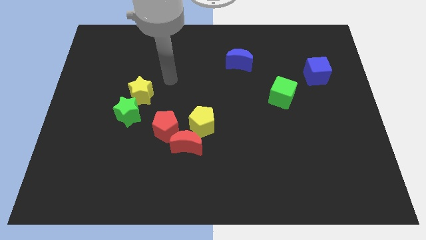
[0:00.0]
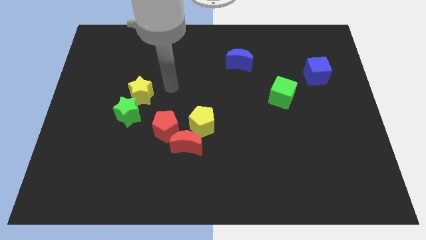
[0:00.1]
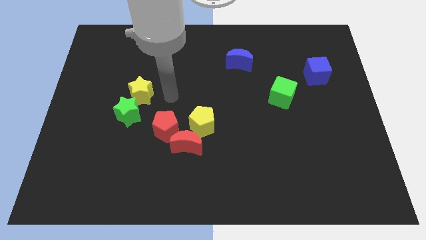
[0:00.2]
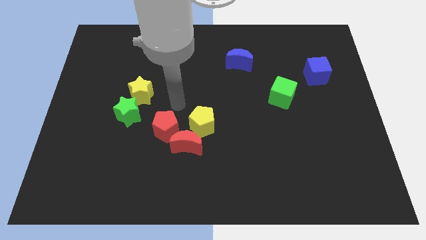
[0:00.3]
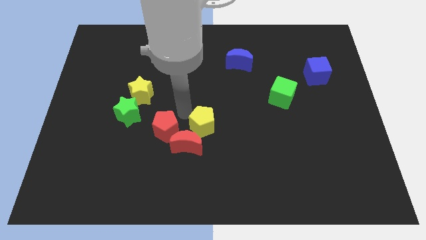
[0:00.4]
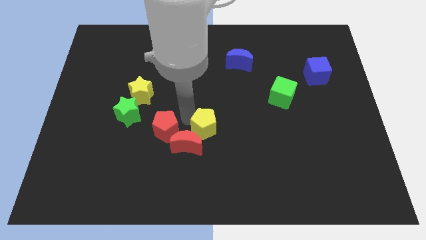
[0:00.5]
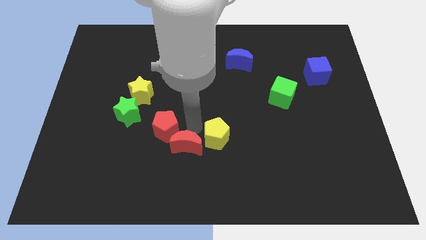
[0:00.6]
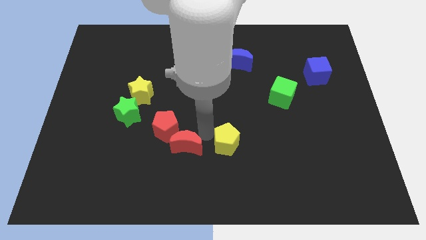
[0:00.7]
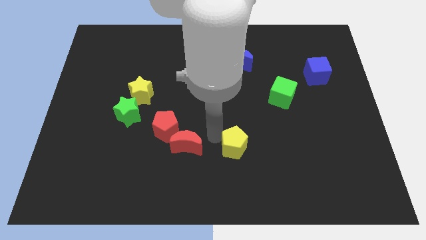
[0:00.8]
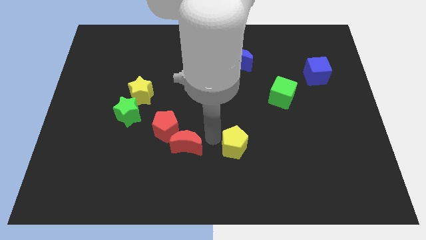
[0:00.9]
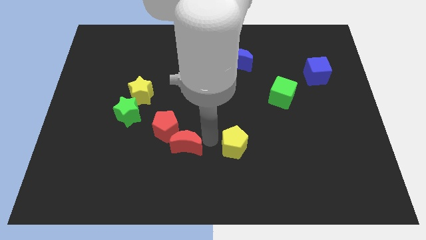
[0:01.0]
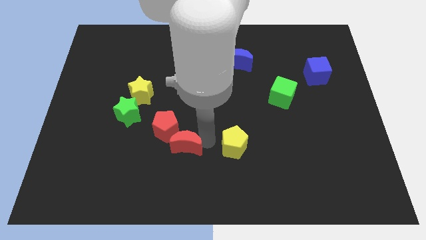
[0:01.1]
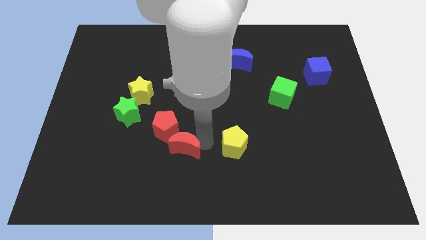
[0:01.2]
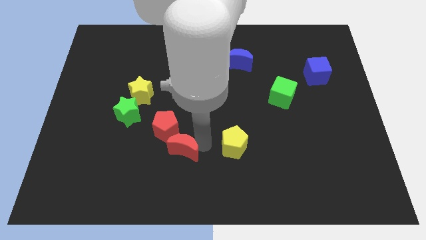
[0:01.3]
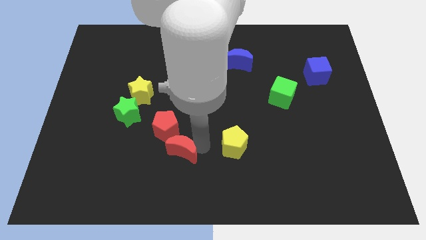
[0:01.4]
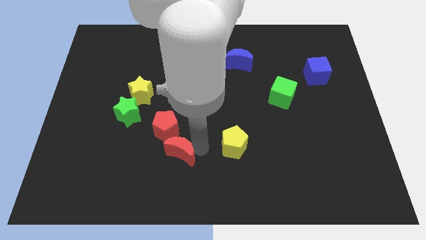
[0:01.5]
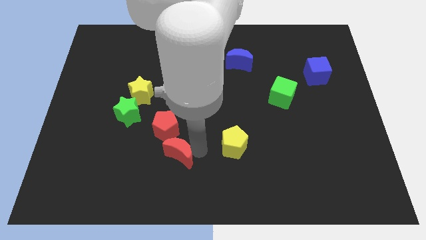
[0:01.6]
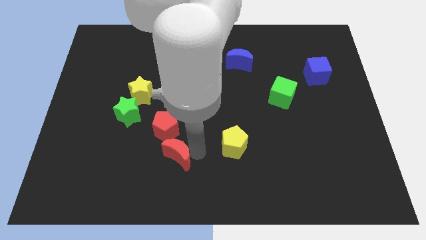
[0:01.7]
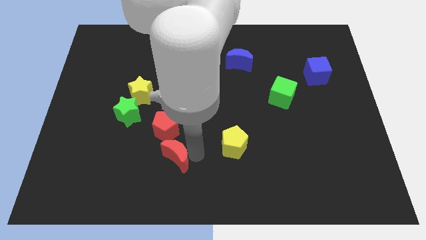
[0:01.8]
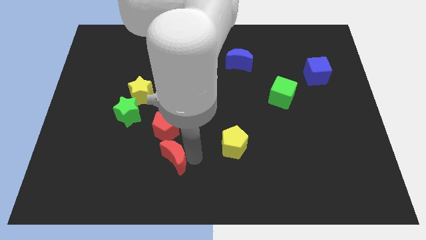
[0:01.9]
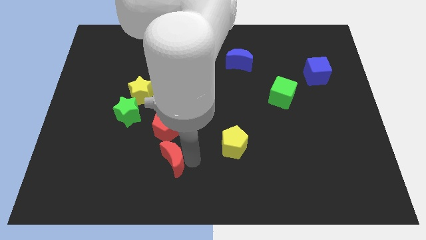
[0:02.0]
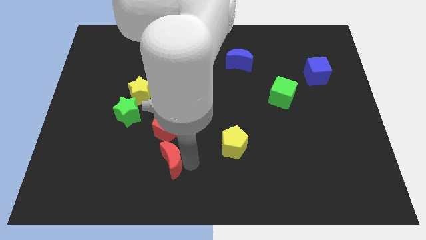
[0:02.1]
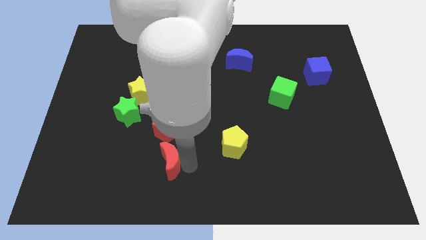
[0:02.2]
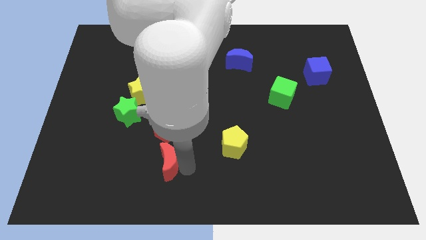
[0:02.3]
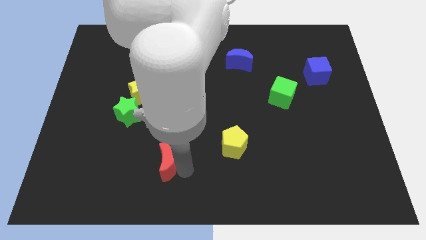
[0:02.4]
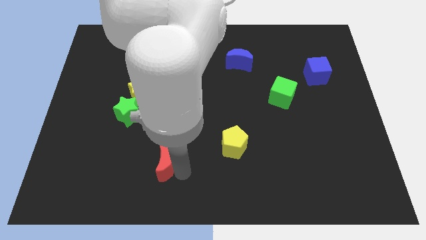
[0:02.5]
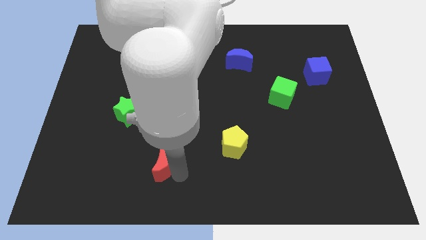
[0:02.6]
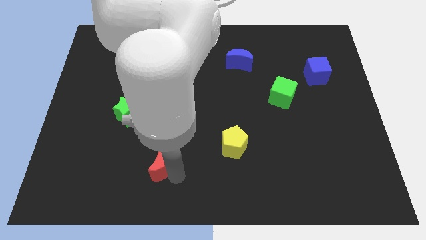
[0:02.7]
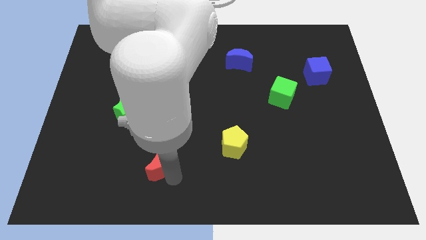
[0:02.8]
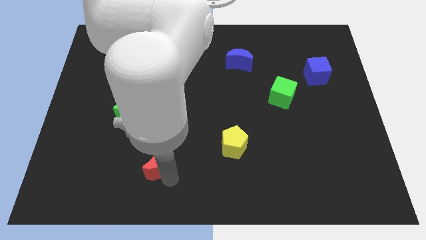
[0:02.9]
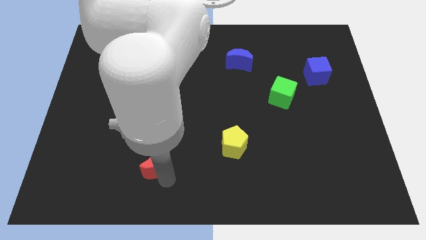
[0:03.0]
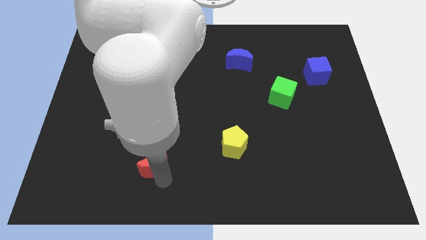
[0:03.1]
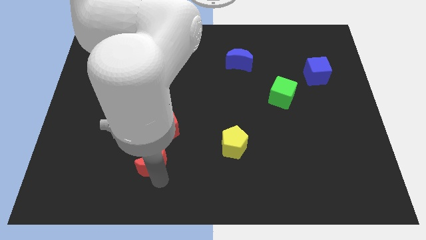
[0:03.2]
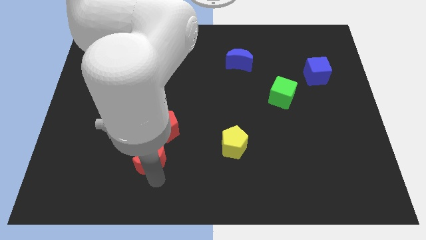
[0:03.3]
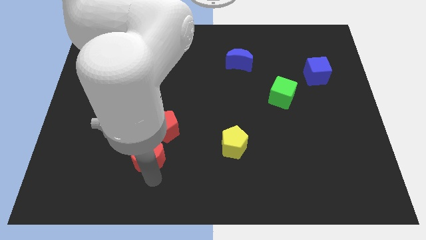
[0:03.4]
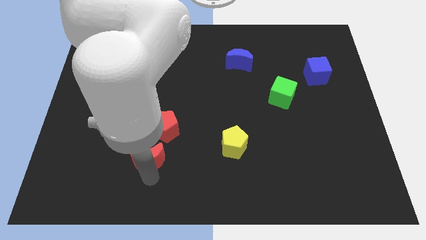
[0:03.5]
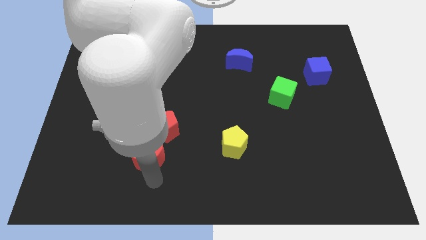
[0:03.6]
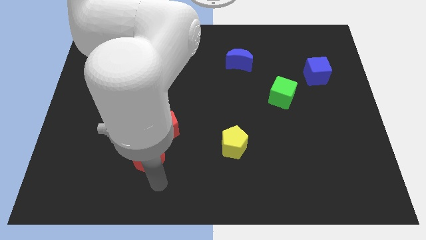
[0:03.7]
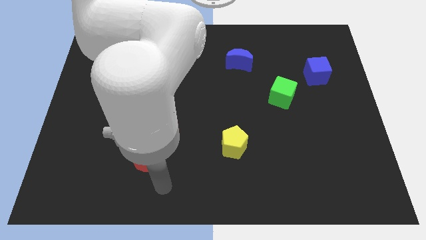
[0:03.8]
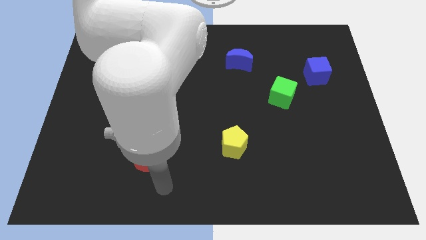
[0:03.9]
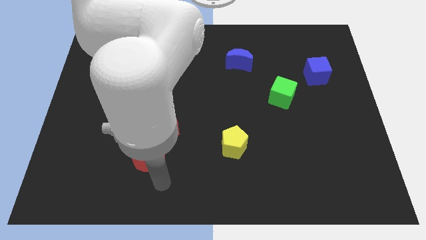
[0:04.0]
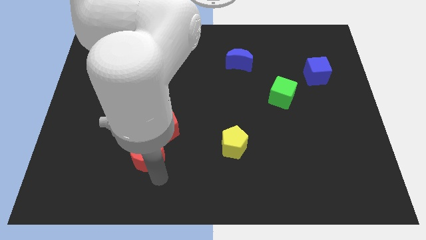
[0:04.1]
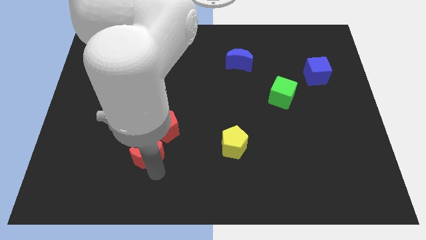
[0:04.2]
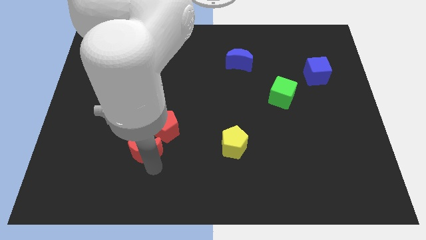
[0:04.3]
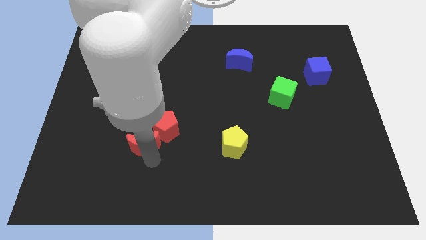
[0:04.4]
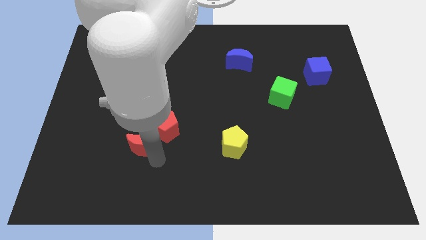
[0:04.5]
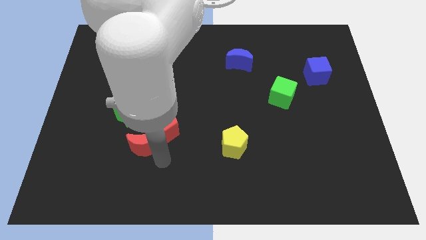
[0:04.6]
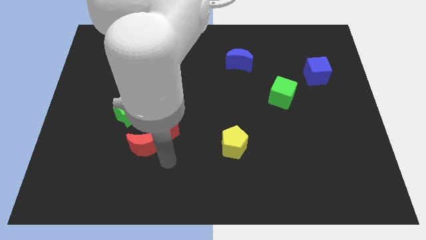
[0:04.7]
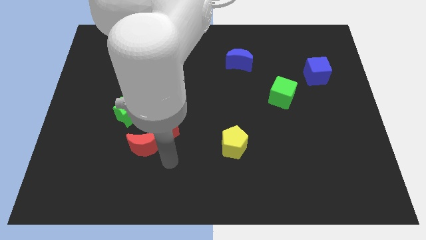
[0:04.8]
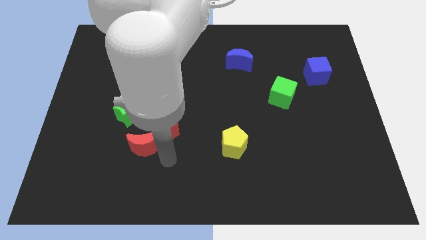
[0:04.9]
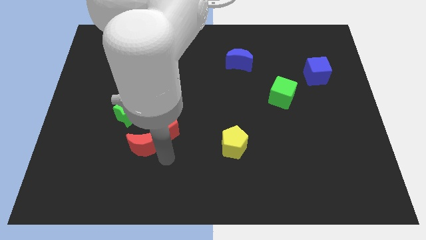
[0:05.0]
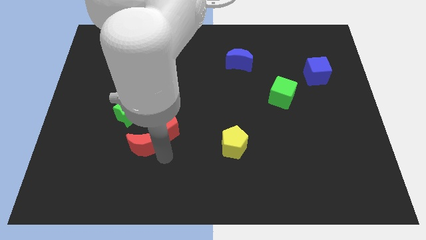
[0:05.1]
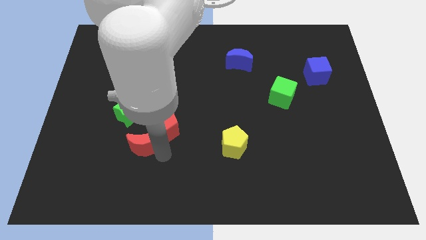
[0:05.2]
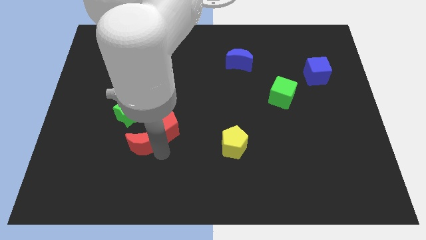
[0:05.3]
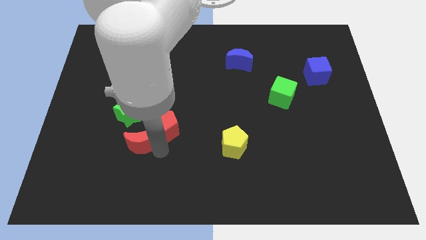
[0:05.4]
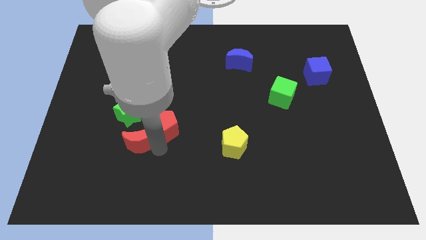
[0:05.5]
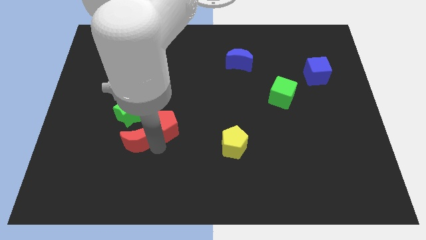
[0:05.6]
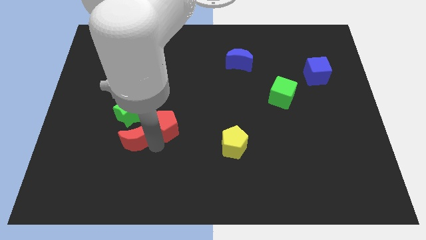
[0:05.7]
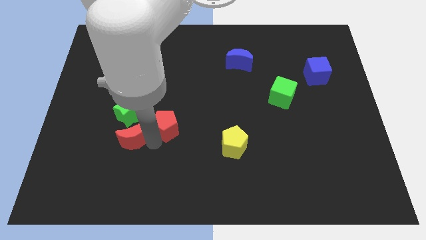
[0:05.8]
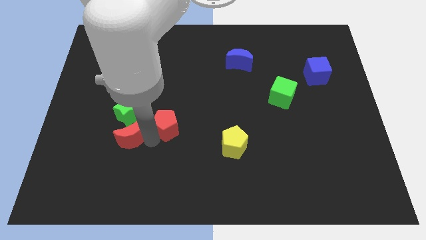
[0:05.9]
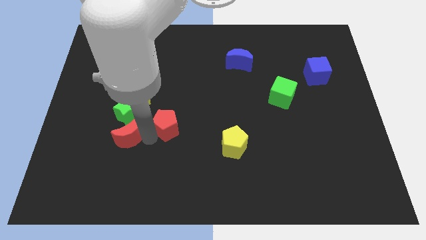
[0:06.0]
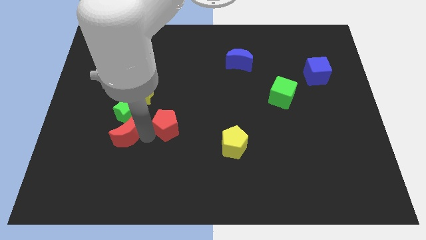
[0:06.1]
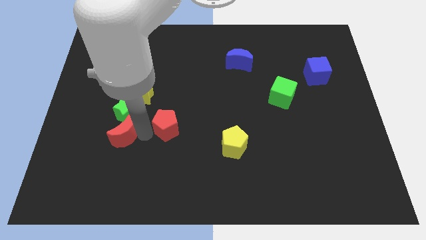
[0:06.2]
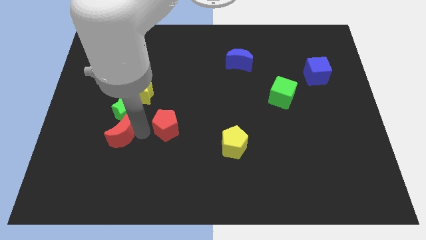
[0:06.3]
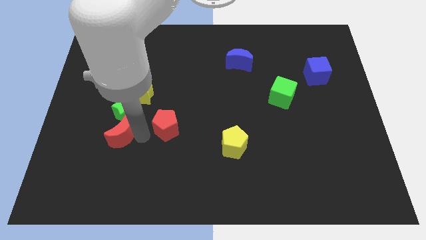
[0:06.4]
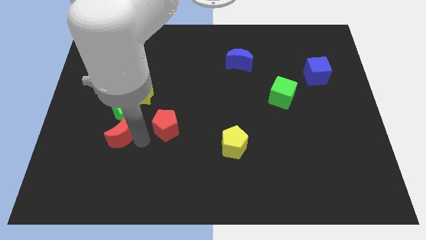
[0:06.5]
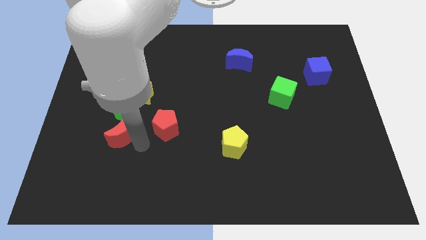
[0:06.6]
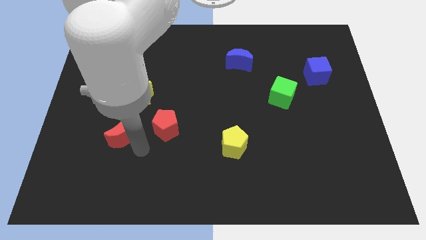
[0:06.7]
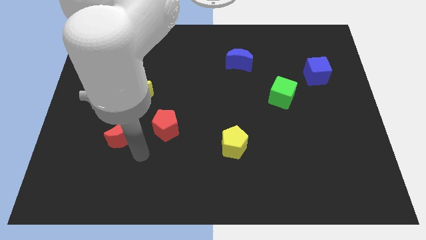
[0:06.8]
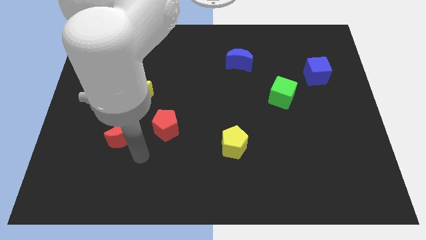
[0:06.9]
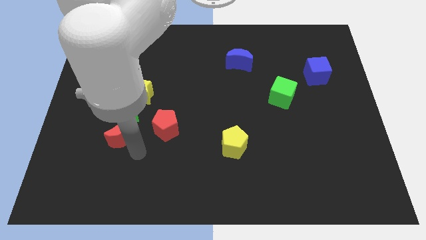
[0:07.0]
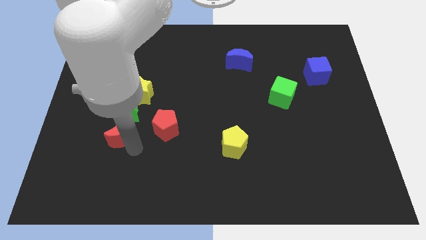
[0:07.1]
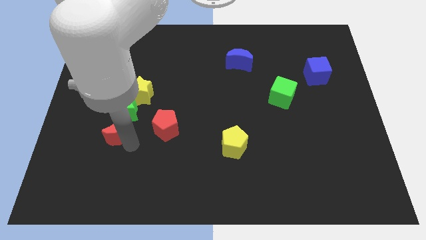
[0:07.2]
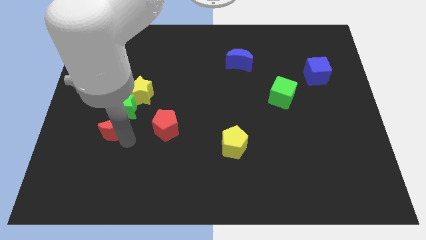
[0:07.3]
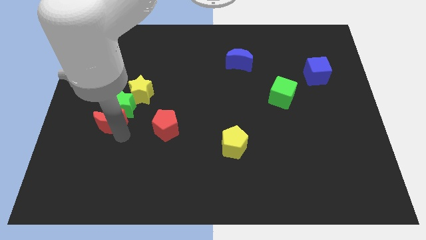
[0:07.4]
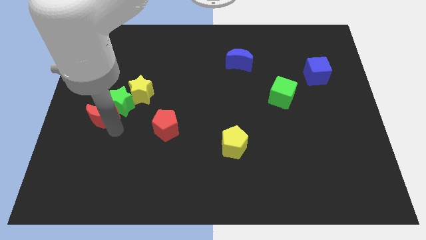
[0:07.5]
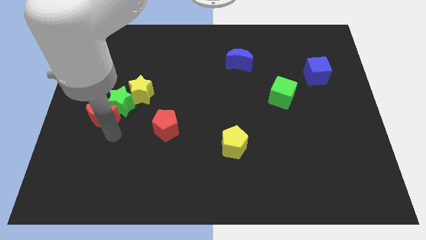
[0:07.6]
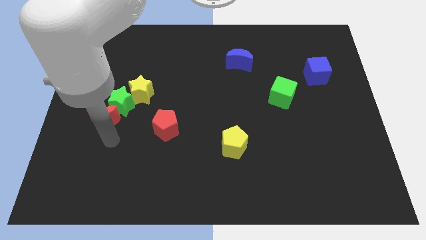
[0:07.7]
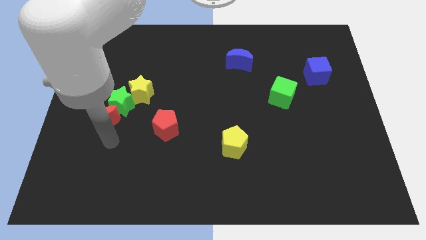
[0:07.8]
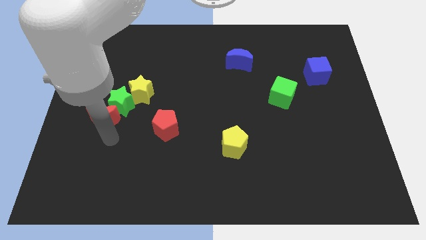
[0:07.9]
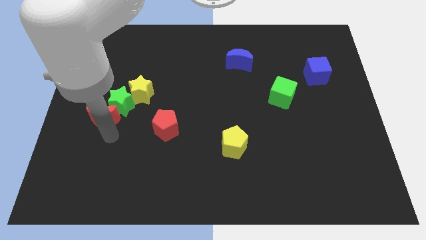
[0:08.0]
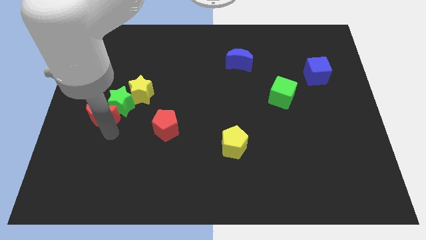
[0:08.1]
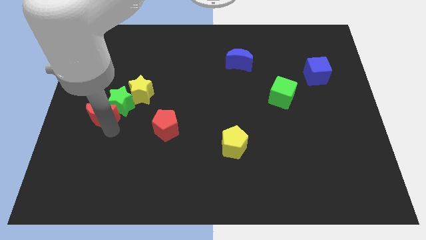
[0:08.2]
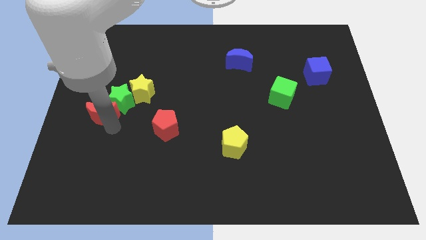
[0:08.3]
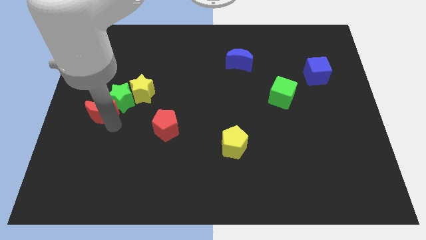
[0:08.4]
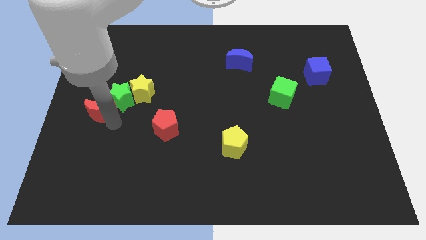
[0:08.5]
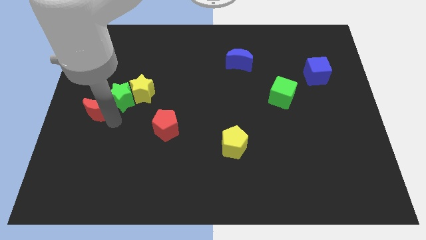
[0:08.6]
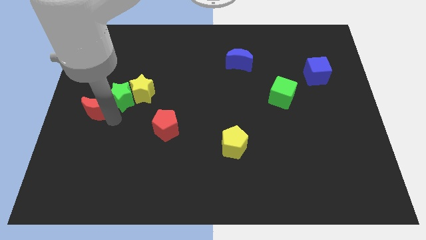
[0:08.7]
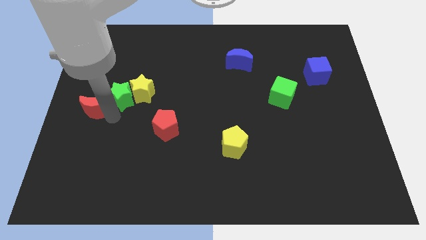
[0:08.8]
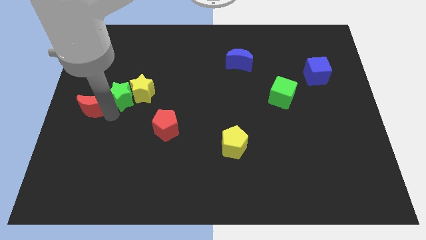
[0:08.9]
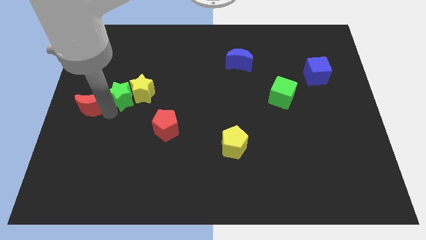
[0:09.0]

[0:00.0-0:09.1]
move the red moon up and then to the left
